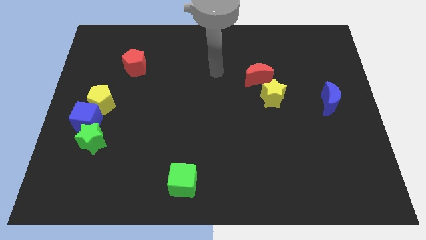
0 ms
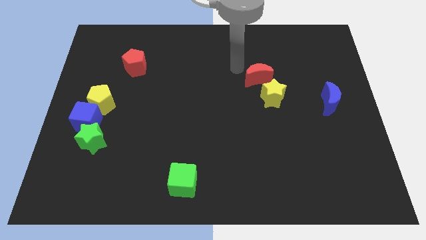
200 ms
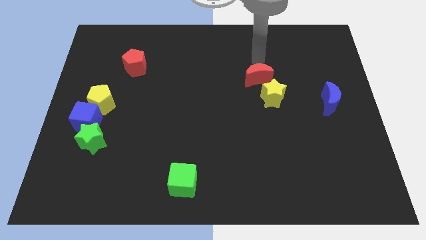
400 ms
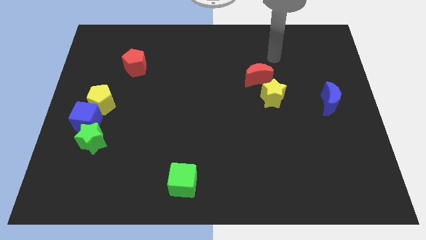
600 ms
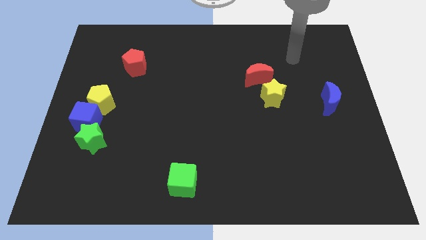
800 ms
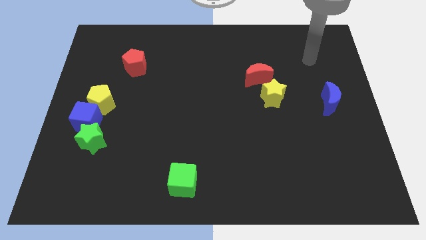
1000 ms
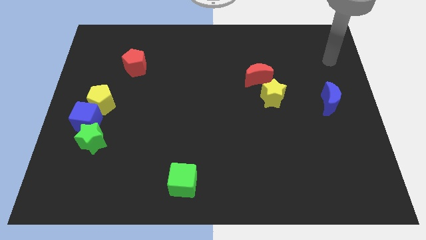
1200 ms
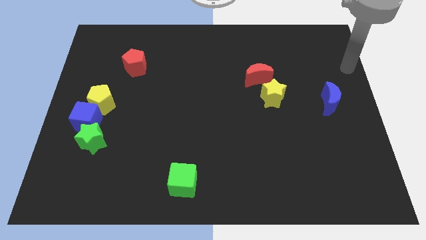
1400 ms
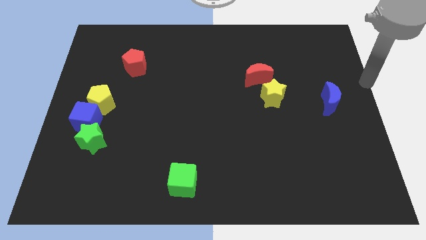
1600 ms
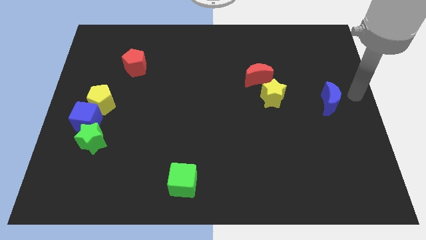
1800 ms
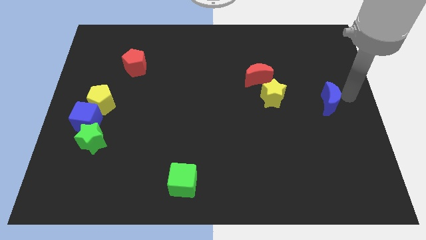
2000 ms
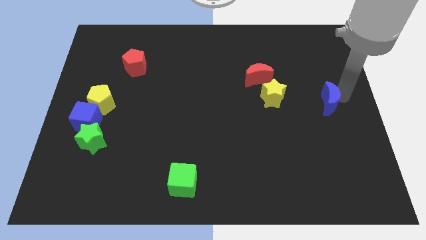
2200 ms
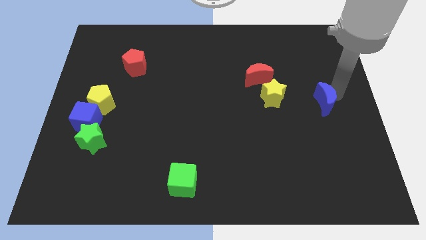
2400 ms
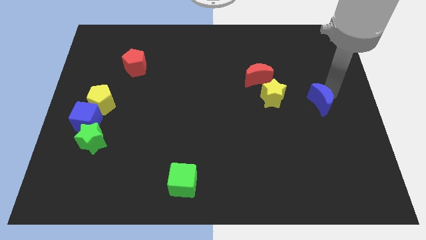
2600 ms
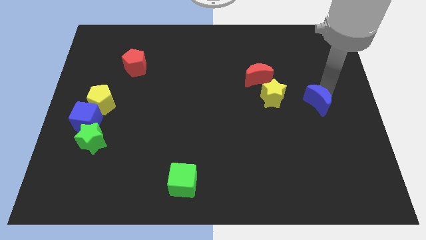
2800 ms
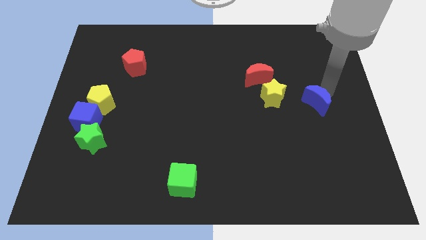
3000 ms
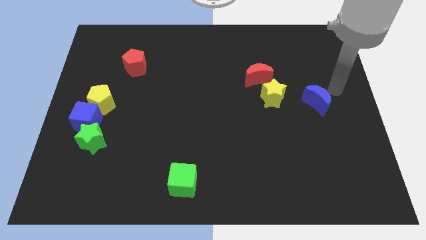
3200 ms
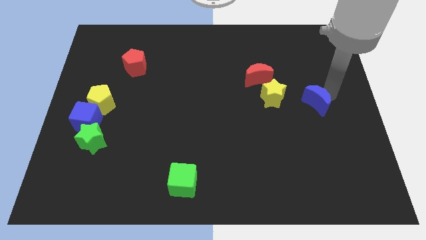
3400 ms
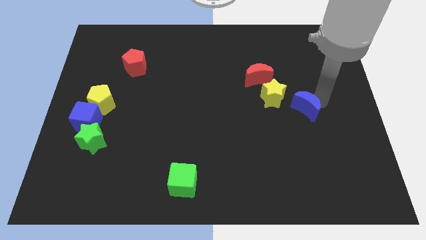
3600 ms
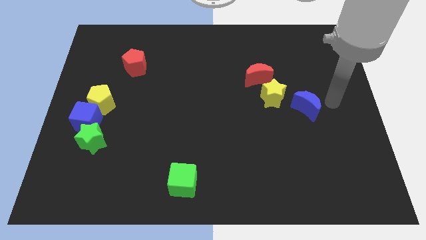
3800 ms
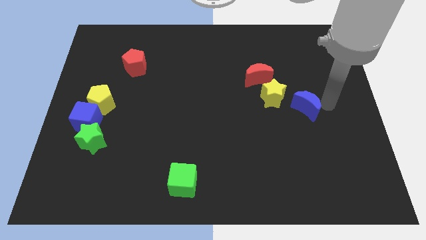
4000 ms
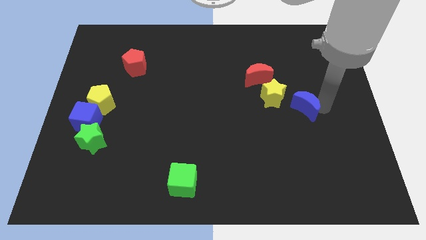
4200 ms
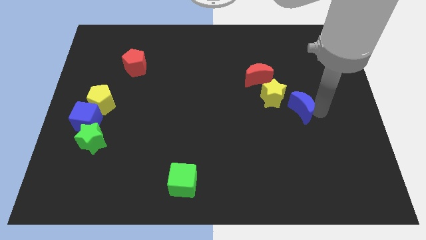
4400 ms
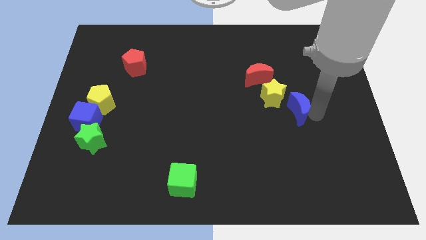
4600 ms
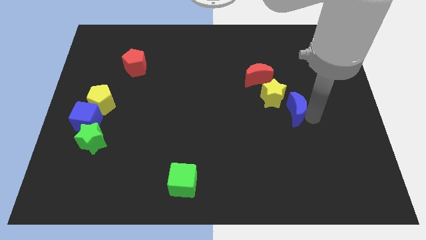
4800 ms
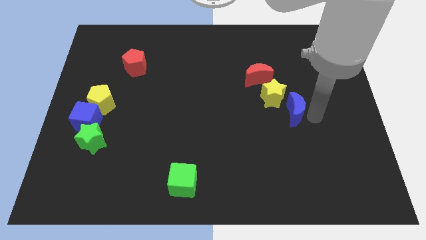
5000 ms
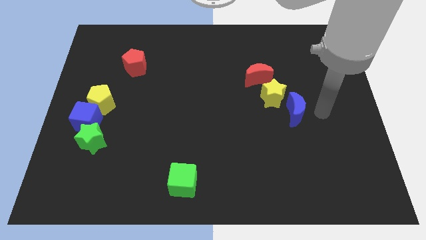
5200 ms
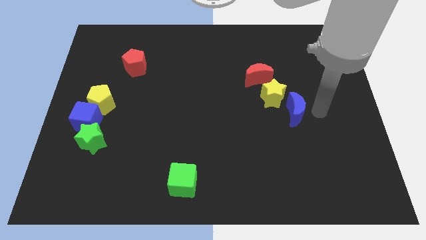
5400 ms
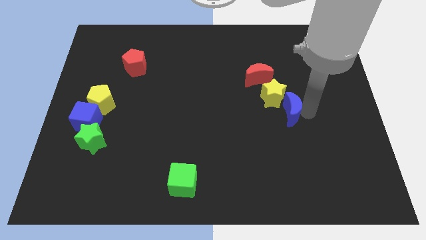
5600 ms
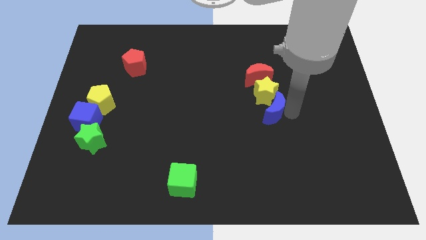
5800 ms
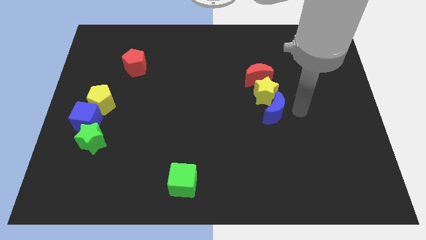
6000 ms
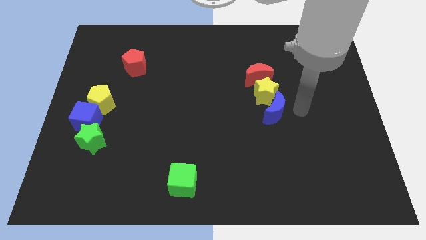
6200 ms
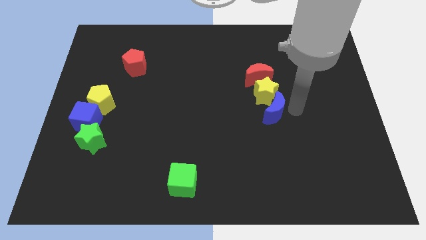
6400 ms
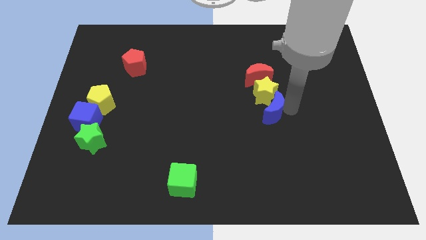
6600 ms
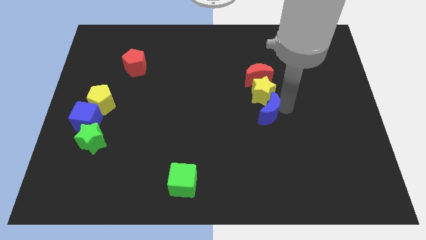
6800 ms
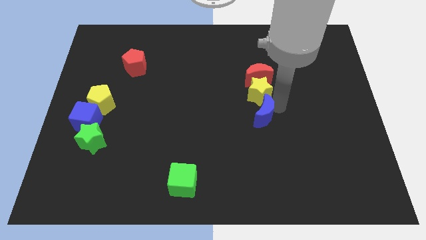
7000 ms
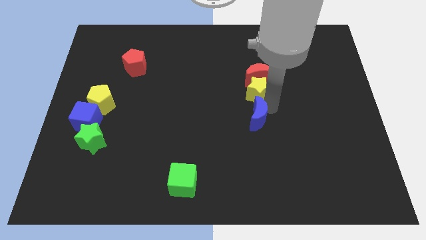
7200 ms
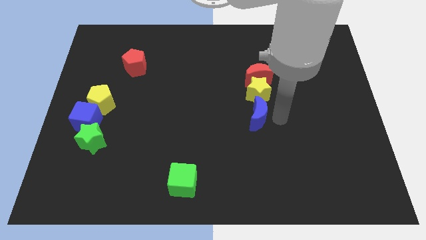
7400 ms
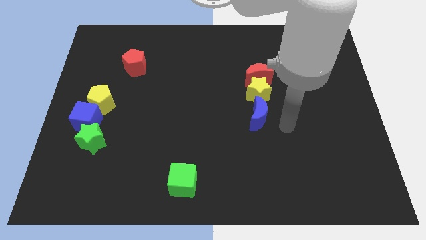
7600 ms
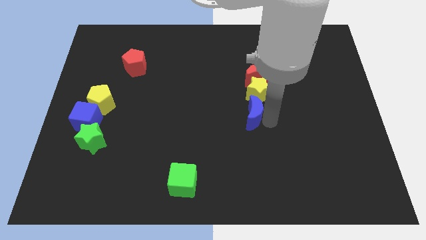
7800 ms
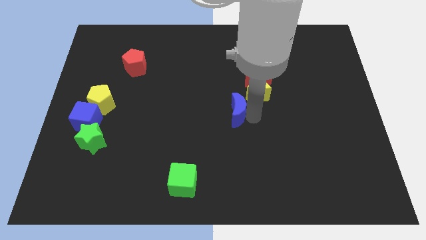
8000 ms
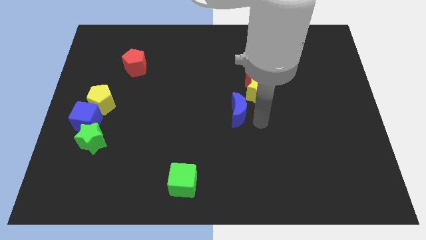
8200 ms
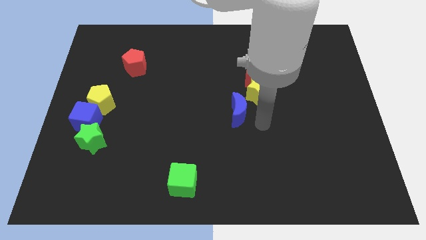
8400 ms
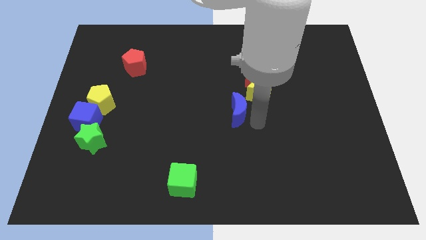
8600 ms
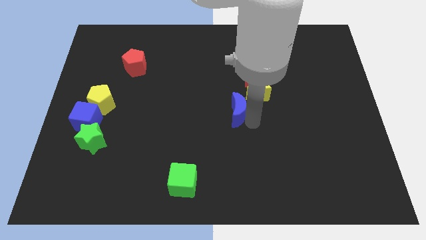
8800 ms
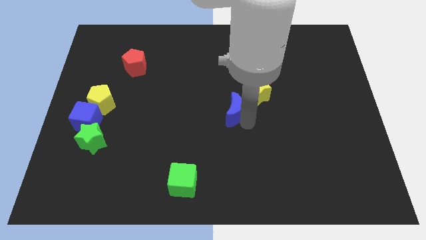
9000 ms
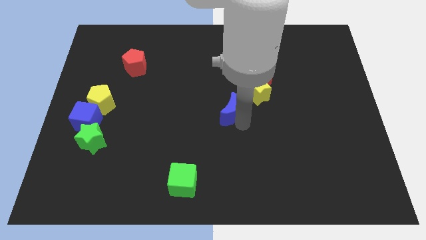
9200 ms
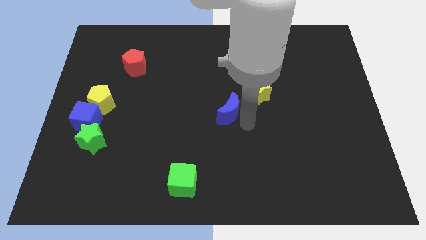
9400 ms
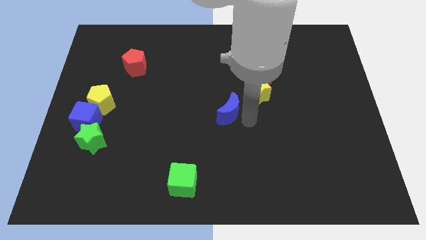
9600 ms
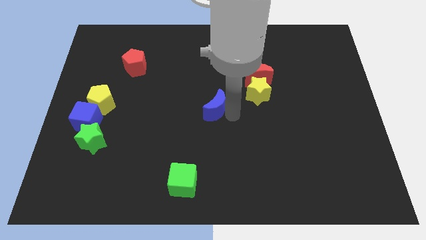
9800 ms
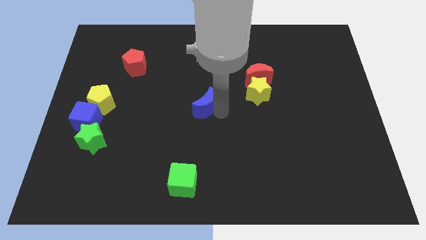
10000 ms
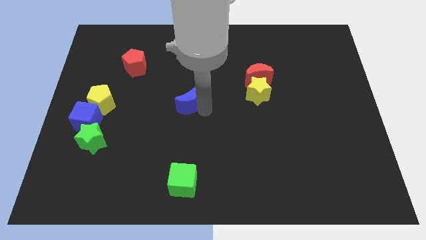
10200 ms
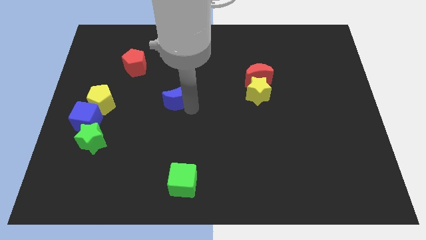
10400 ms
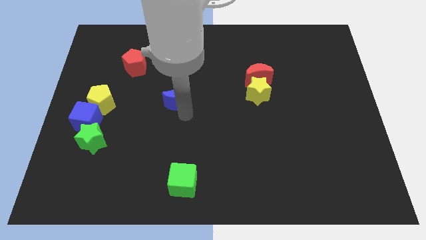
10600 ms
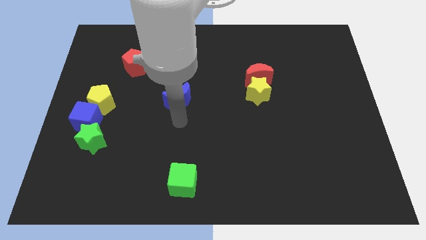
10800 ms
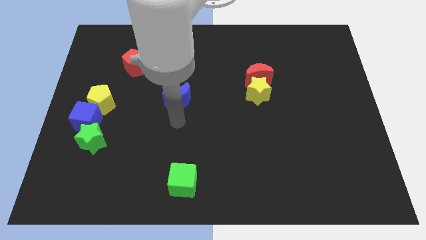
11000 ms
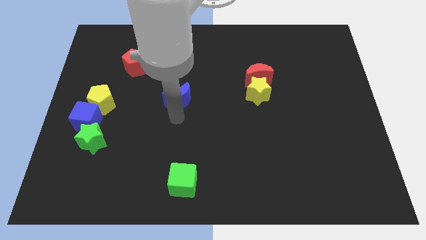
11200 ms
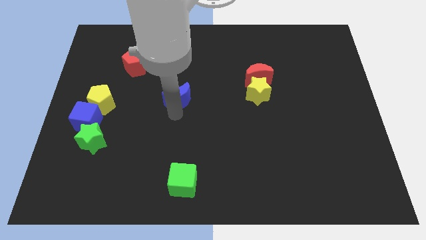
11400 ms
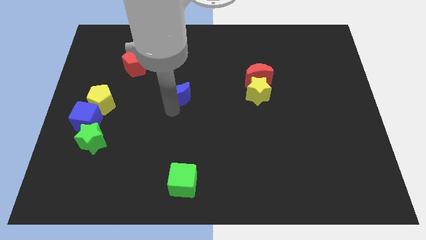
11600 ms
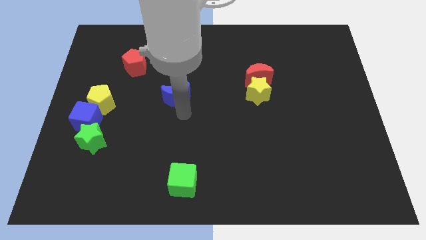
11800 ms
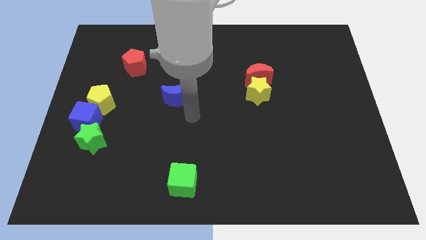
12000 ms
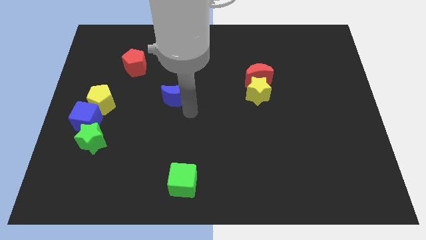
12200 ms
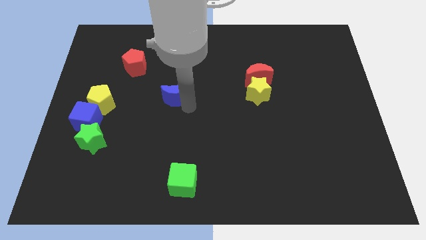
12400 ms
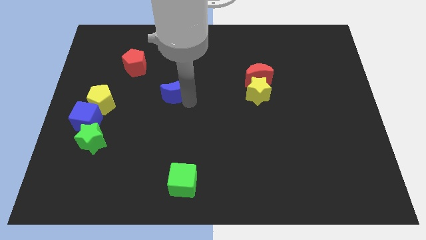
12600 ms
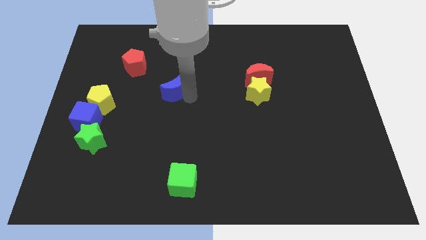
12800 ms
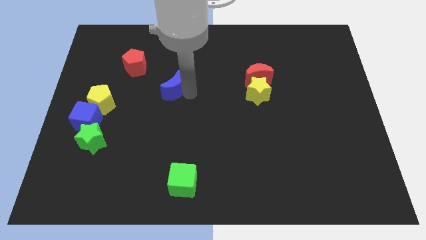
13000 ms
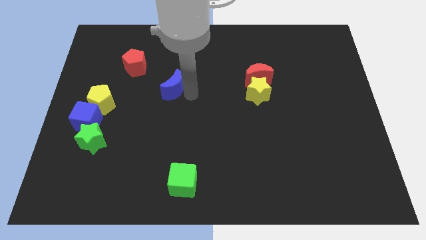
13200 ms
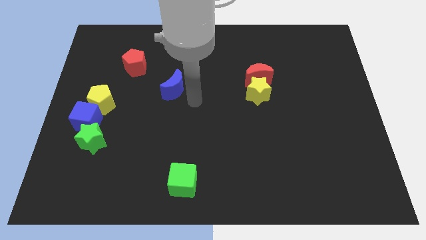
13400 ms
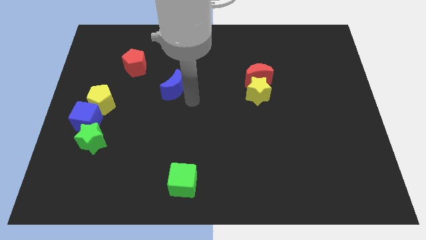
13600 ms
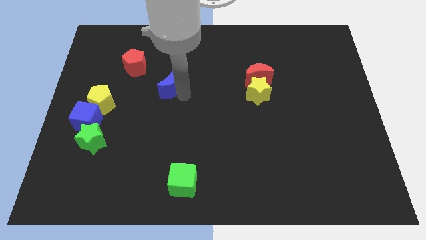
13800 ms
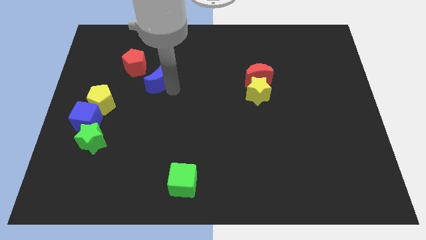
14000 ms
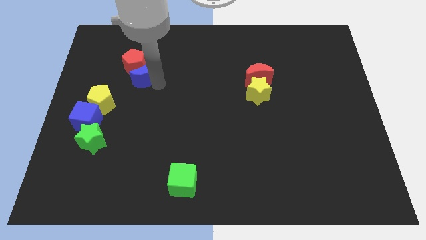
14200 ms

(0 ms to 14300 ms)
slide the blue moon to the red pentagon
